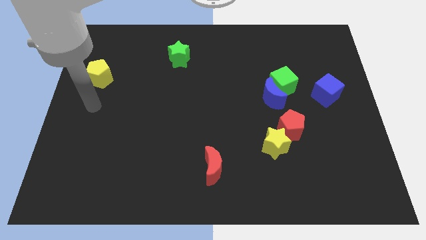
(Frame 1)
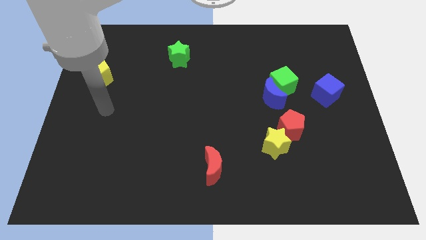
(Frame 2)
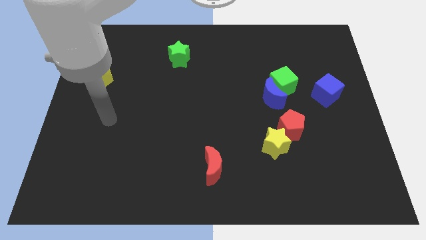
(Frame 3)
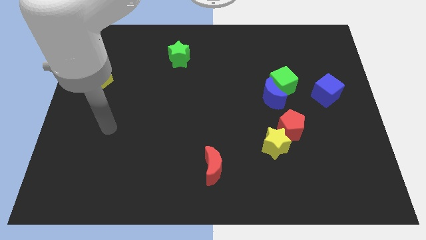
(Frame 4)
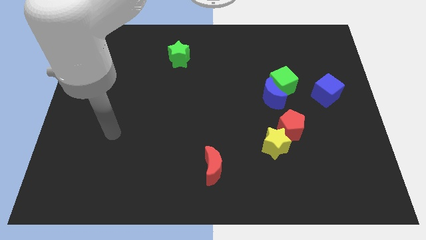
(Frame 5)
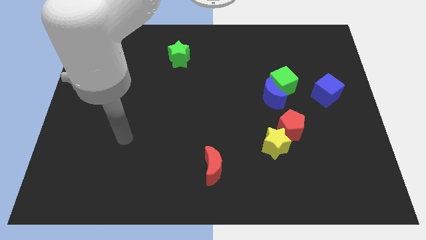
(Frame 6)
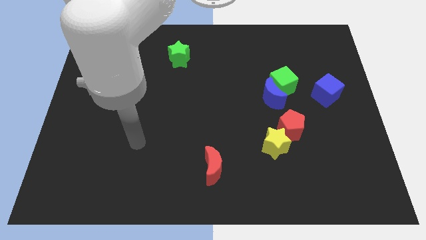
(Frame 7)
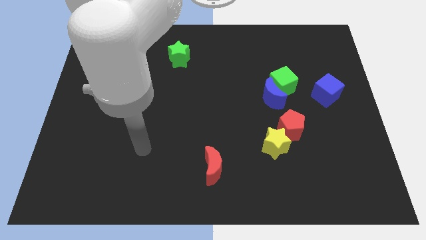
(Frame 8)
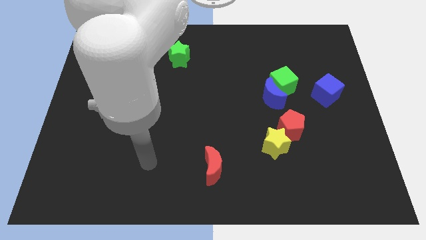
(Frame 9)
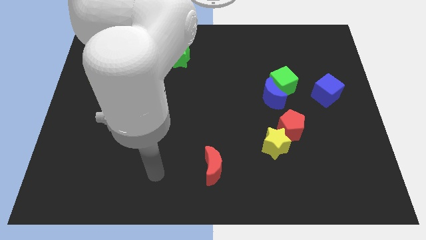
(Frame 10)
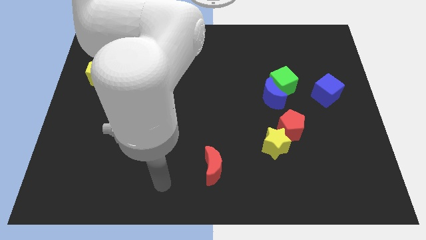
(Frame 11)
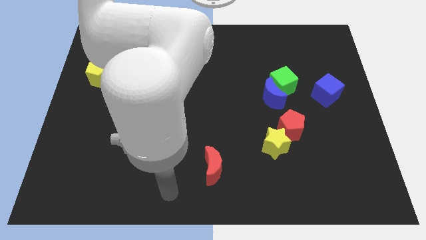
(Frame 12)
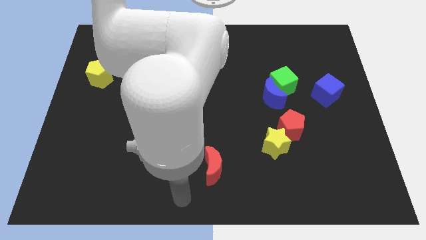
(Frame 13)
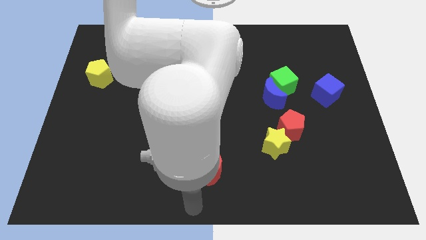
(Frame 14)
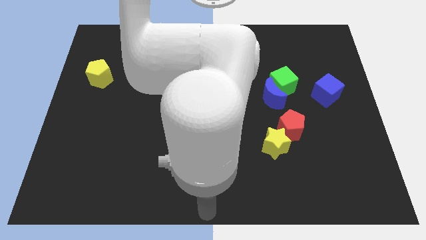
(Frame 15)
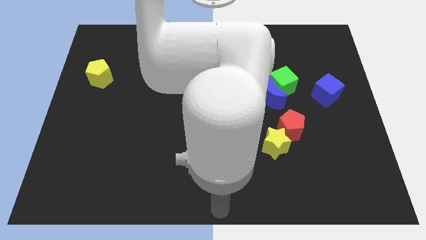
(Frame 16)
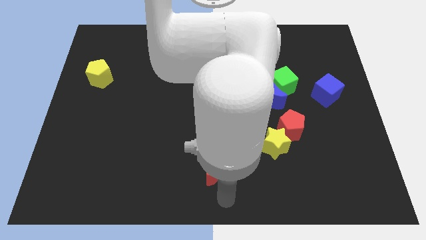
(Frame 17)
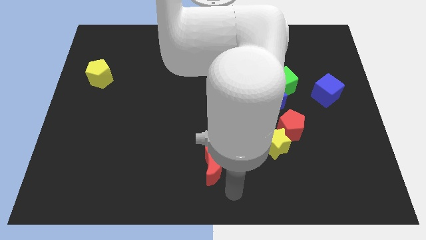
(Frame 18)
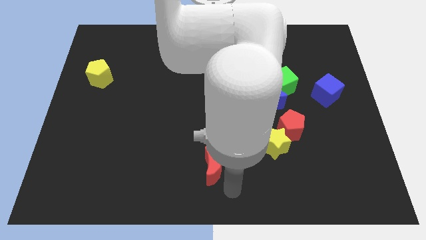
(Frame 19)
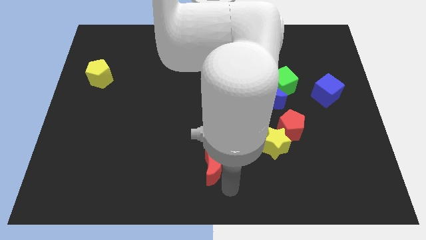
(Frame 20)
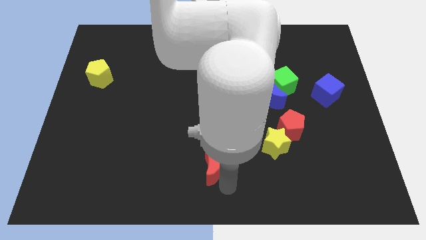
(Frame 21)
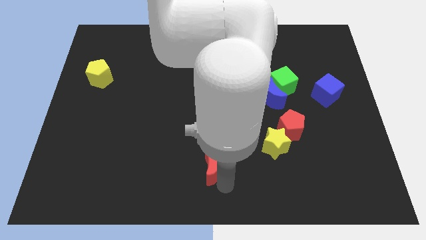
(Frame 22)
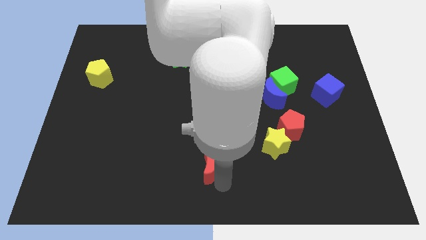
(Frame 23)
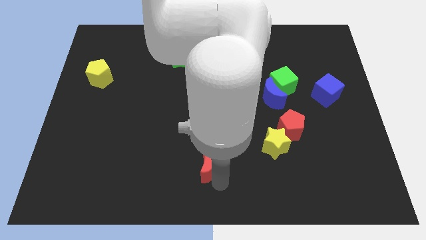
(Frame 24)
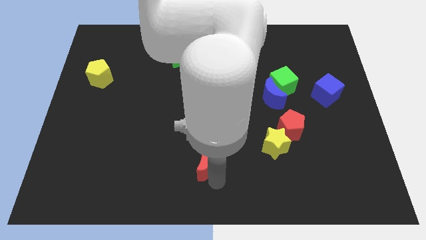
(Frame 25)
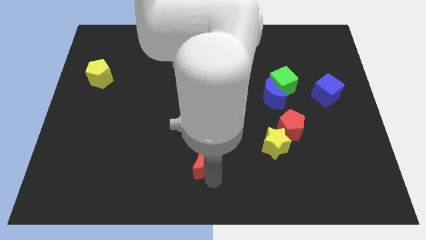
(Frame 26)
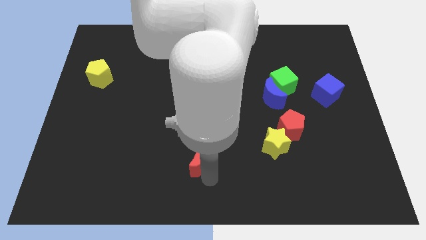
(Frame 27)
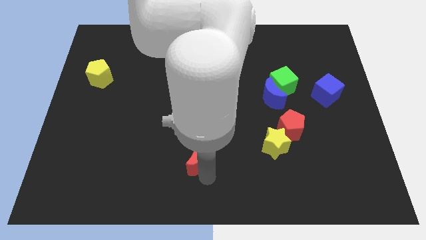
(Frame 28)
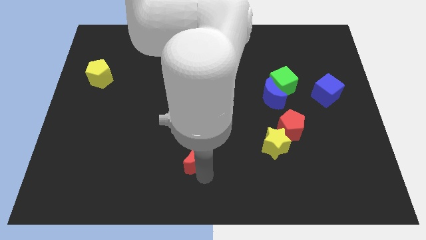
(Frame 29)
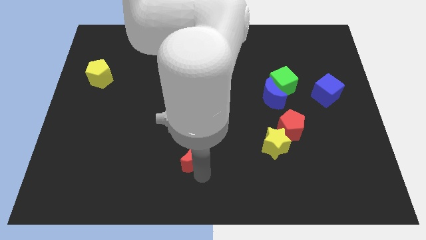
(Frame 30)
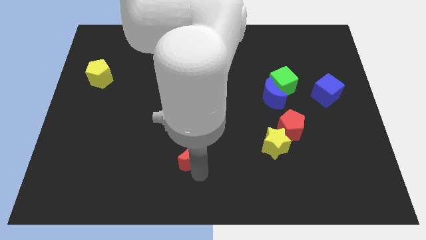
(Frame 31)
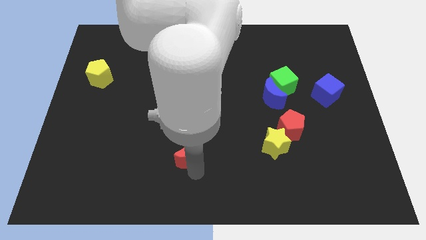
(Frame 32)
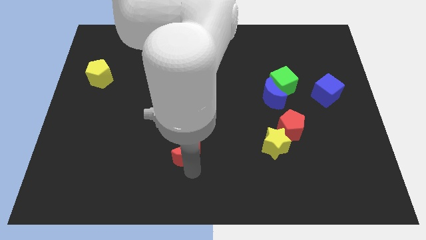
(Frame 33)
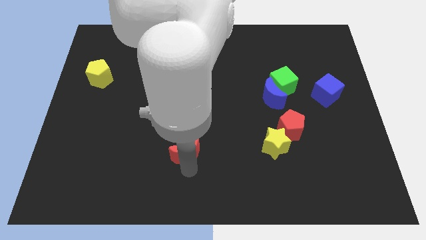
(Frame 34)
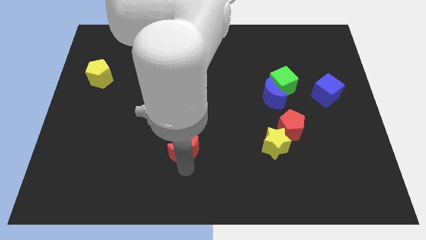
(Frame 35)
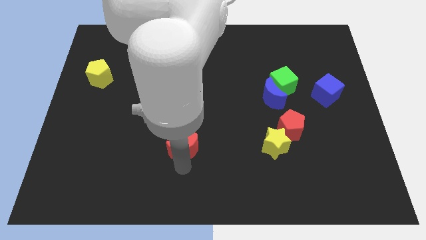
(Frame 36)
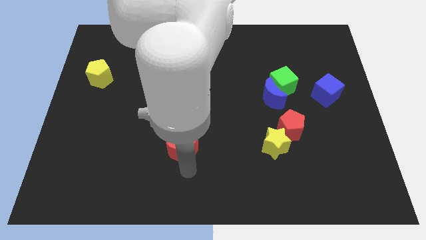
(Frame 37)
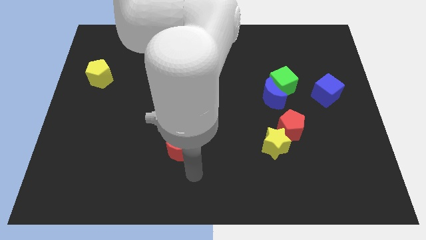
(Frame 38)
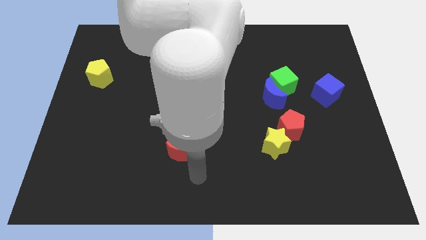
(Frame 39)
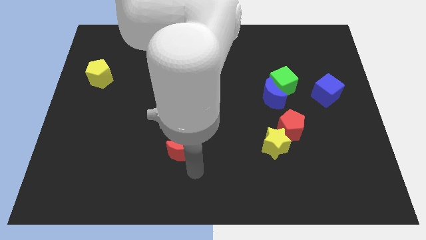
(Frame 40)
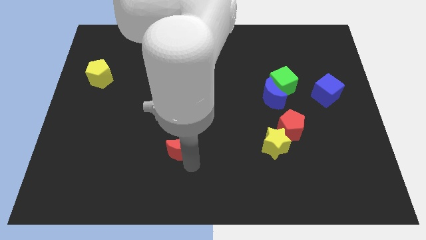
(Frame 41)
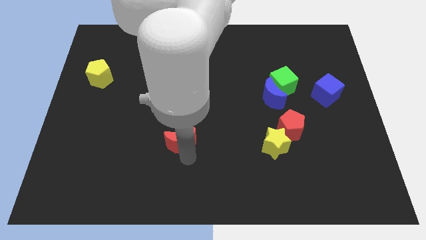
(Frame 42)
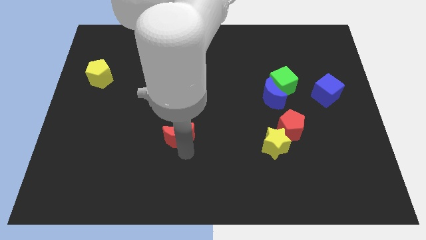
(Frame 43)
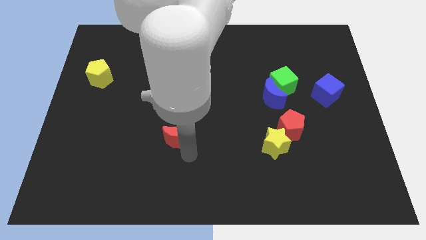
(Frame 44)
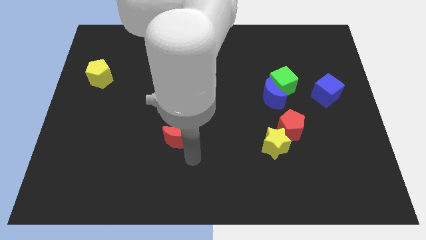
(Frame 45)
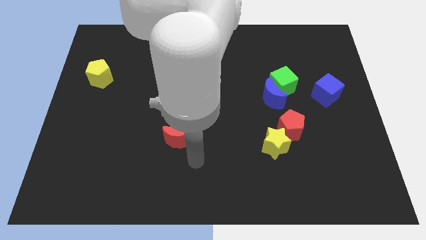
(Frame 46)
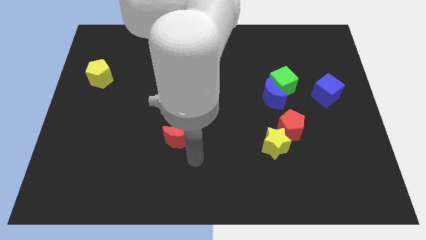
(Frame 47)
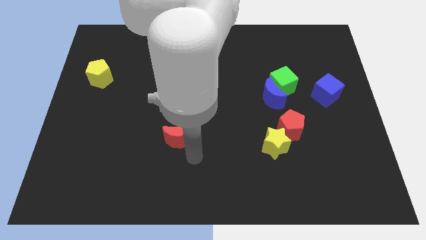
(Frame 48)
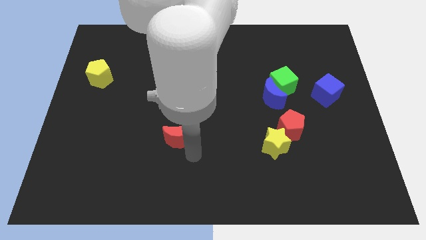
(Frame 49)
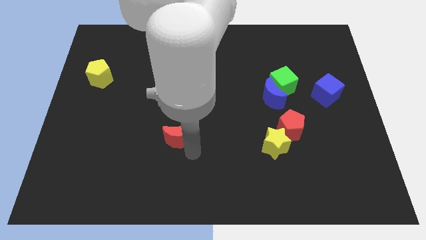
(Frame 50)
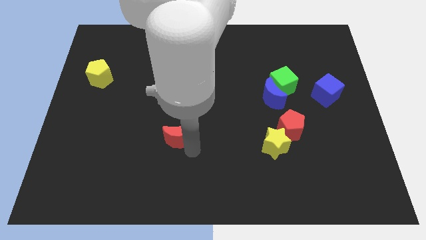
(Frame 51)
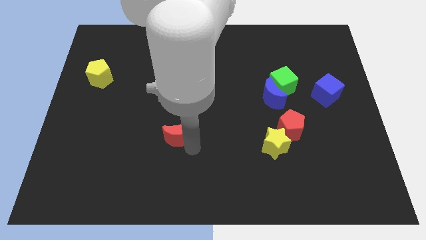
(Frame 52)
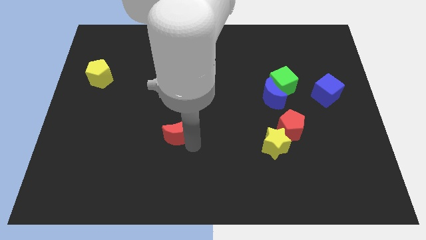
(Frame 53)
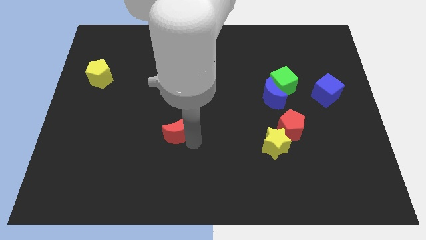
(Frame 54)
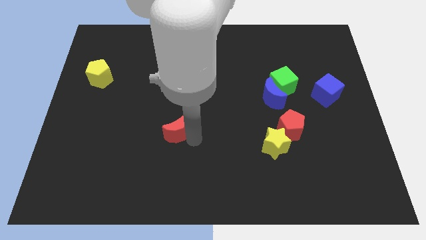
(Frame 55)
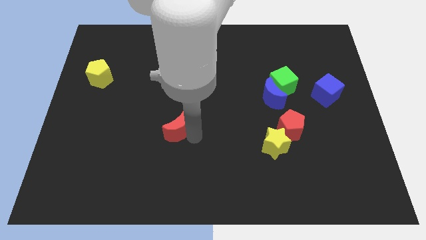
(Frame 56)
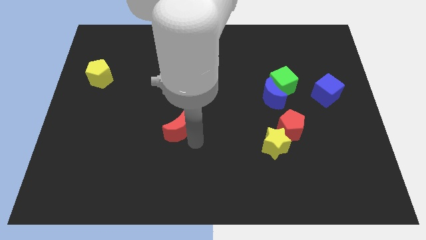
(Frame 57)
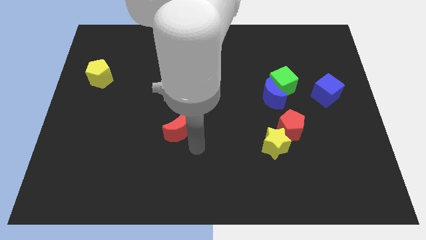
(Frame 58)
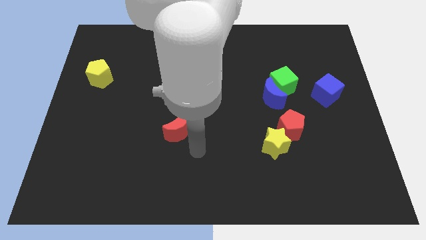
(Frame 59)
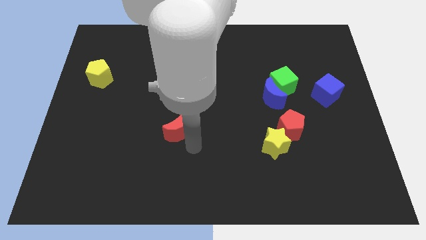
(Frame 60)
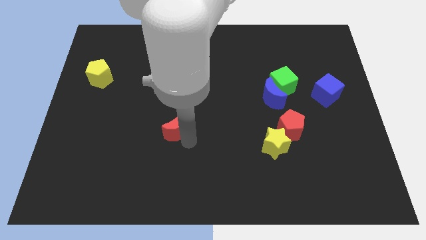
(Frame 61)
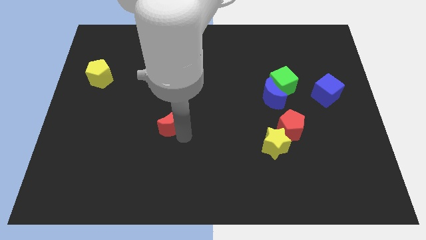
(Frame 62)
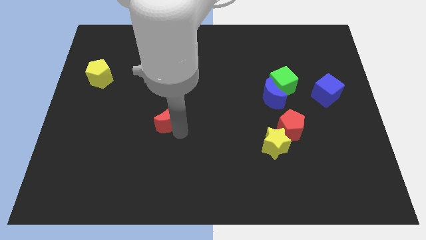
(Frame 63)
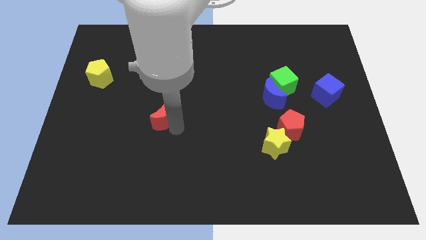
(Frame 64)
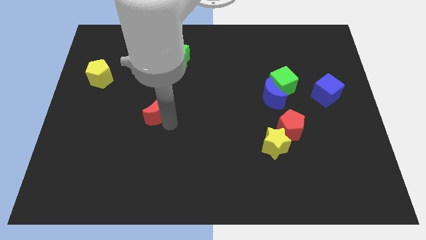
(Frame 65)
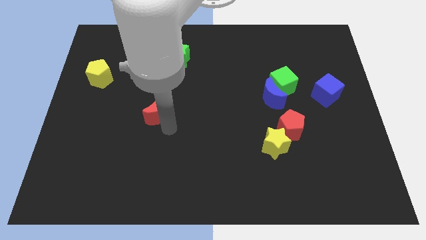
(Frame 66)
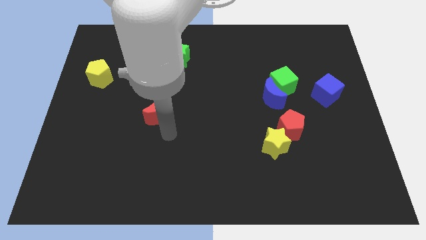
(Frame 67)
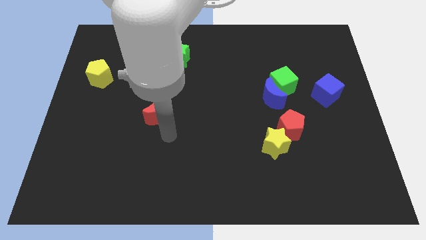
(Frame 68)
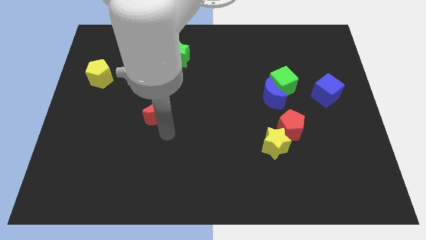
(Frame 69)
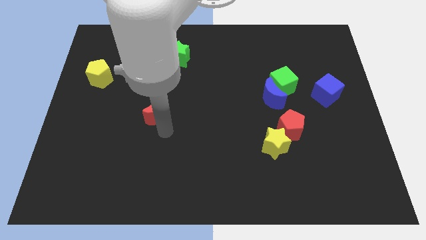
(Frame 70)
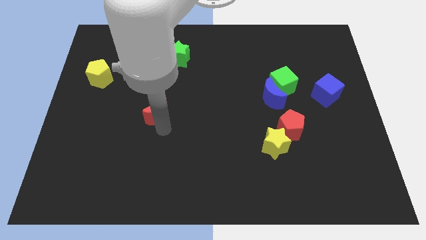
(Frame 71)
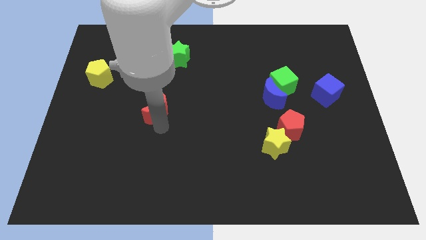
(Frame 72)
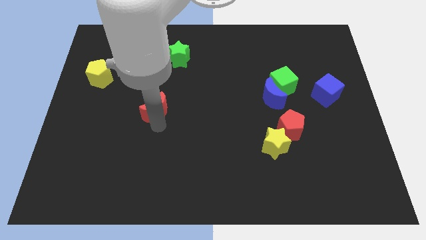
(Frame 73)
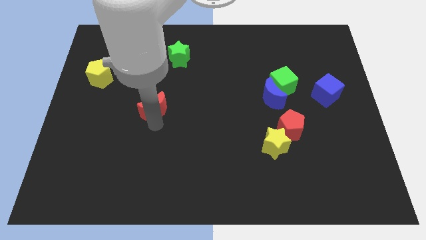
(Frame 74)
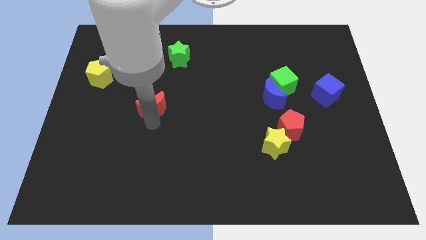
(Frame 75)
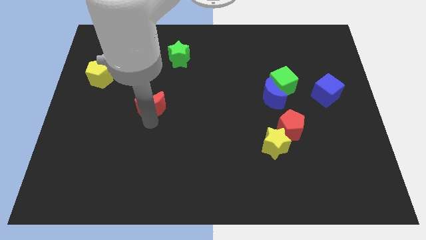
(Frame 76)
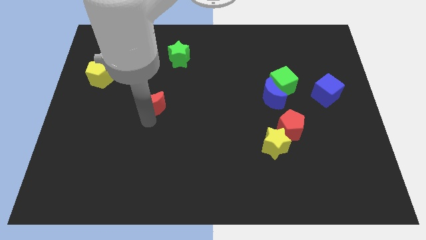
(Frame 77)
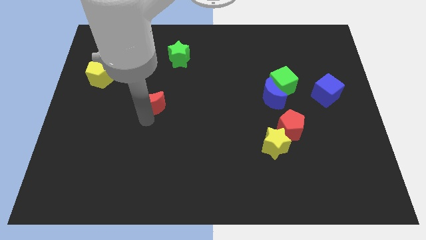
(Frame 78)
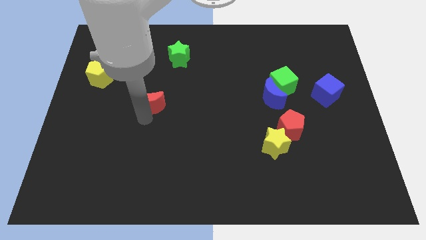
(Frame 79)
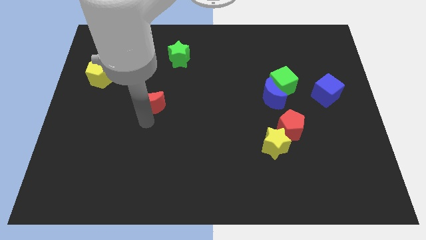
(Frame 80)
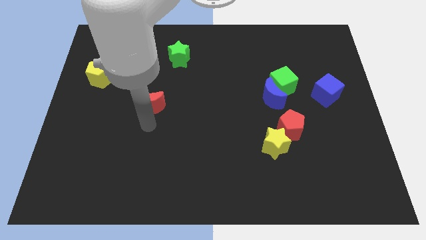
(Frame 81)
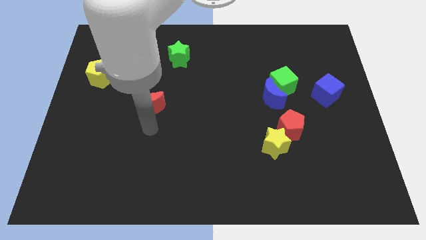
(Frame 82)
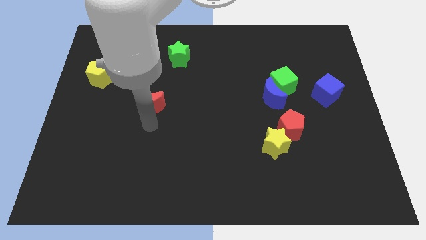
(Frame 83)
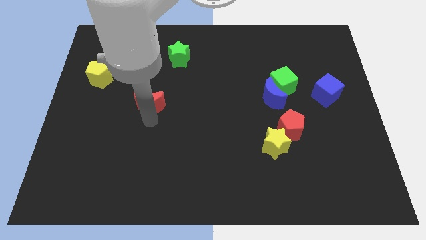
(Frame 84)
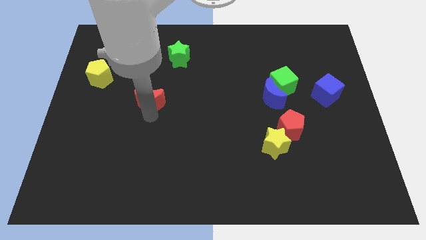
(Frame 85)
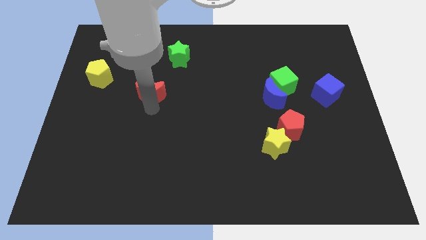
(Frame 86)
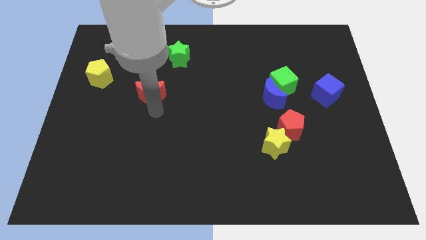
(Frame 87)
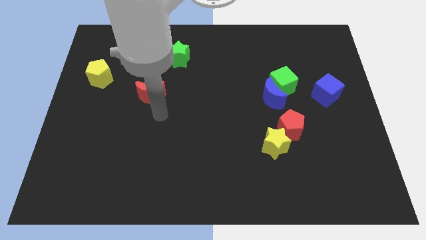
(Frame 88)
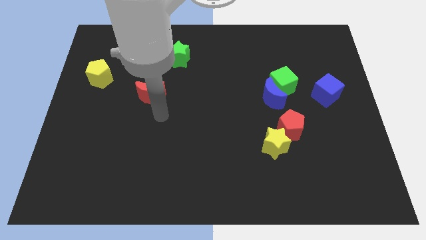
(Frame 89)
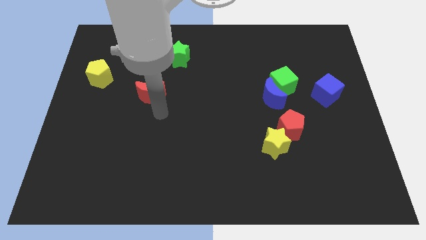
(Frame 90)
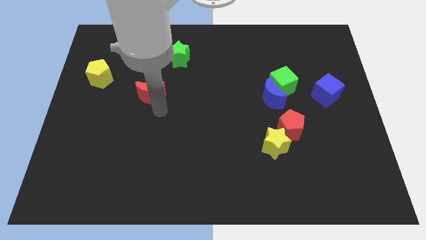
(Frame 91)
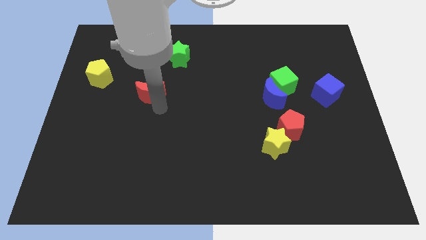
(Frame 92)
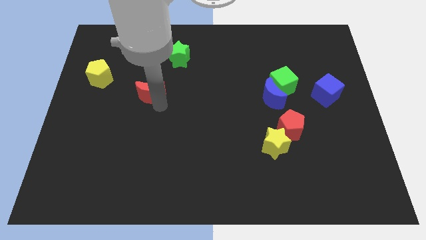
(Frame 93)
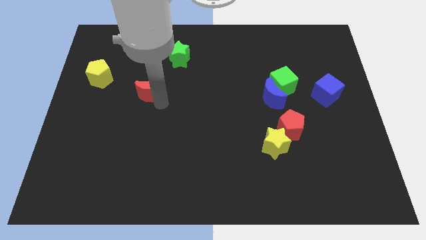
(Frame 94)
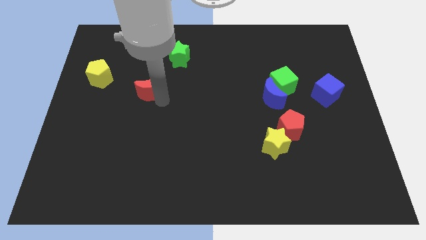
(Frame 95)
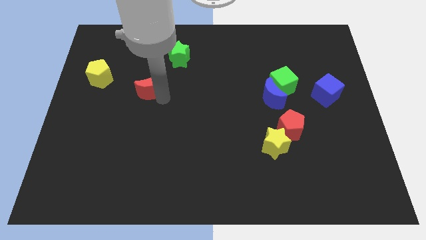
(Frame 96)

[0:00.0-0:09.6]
slide the red moon to the right side of the yellow pentagon
